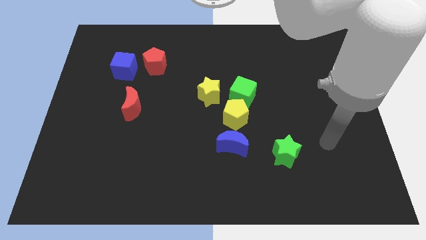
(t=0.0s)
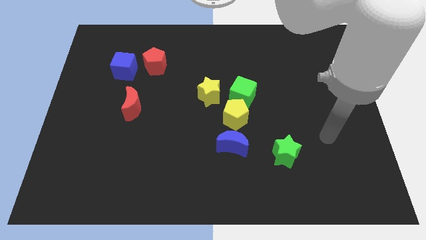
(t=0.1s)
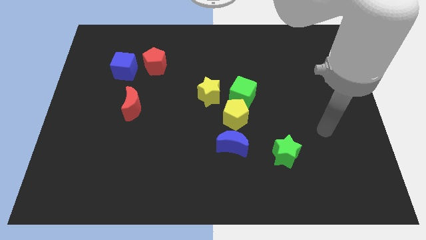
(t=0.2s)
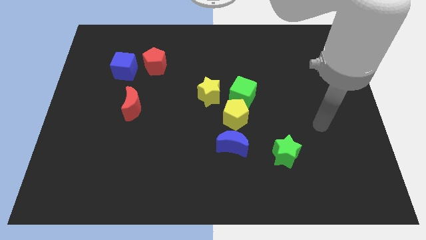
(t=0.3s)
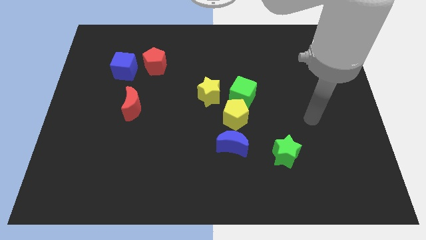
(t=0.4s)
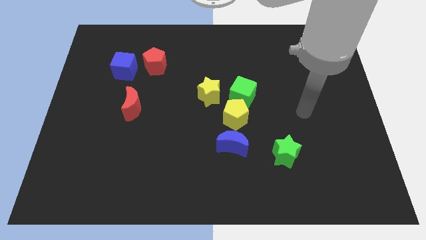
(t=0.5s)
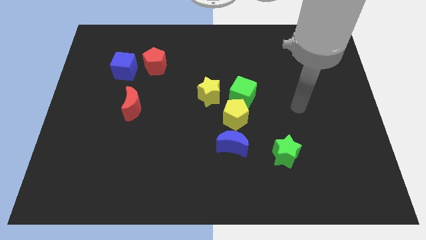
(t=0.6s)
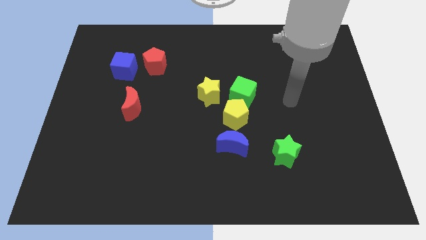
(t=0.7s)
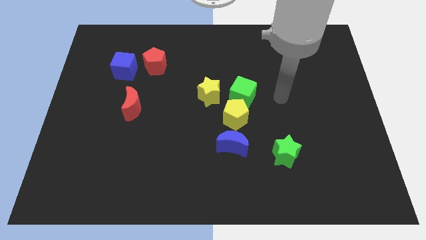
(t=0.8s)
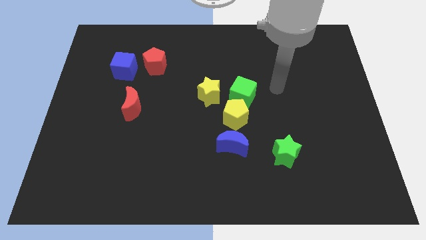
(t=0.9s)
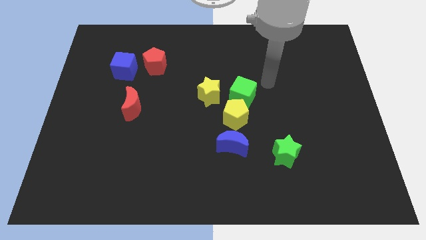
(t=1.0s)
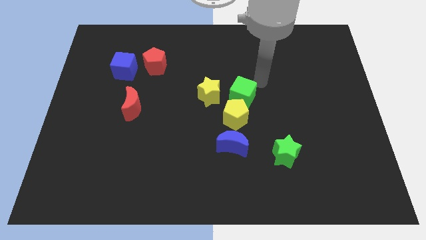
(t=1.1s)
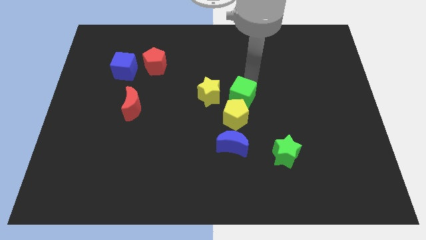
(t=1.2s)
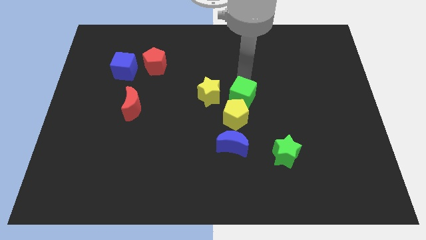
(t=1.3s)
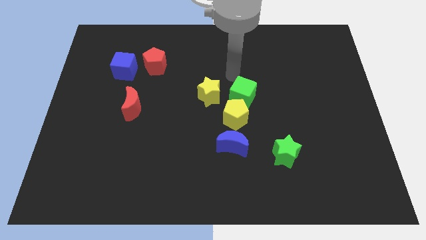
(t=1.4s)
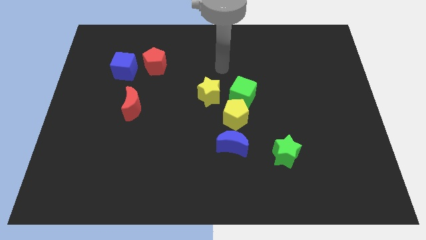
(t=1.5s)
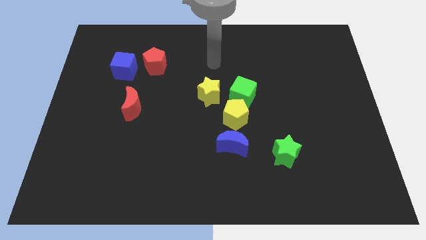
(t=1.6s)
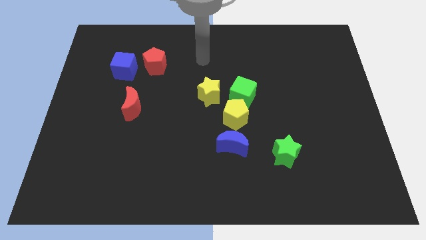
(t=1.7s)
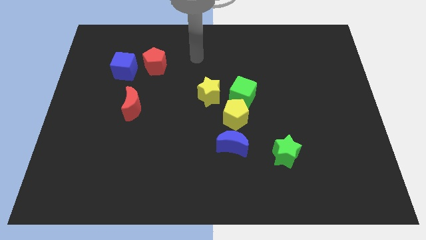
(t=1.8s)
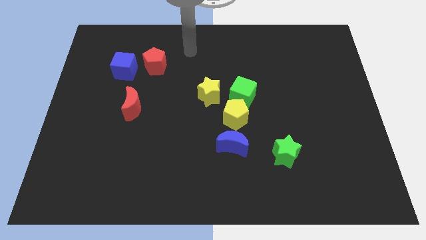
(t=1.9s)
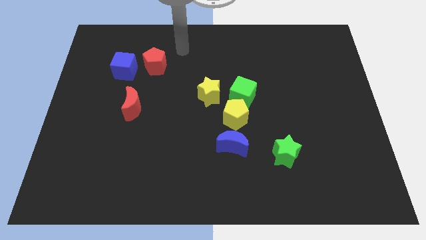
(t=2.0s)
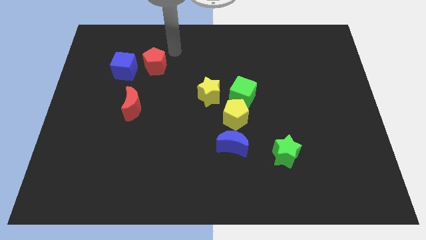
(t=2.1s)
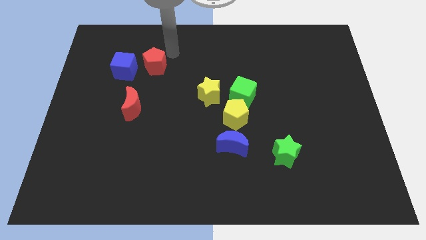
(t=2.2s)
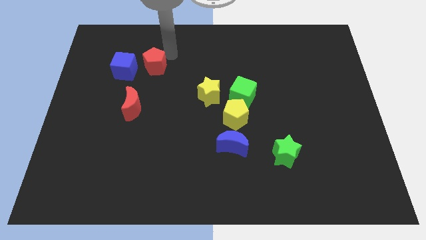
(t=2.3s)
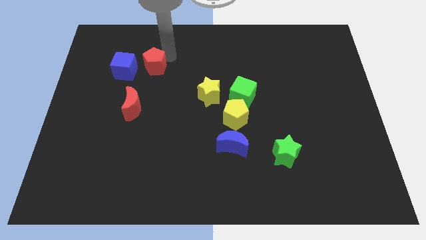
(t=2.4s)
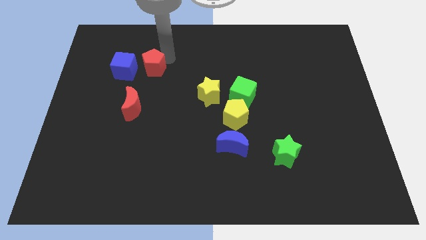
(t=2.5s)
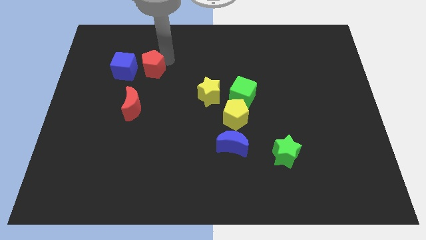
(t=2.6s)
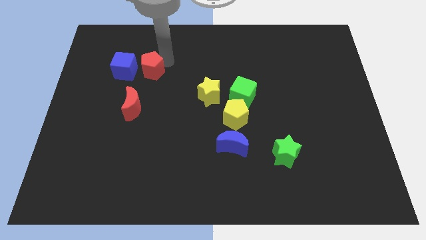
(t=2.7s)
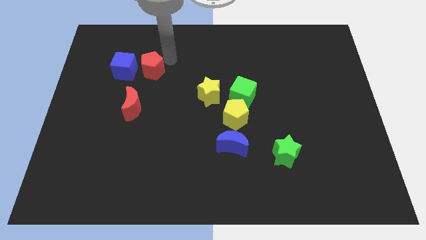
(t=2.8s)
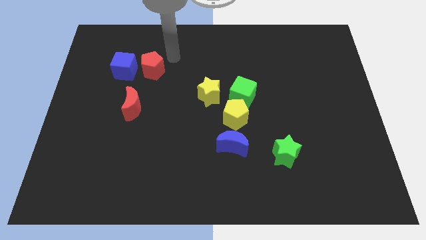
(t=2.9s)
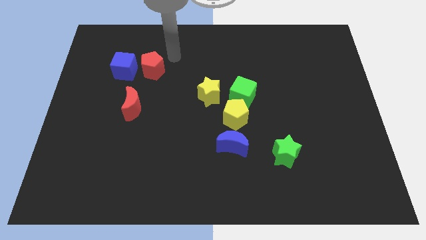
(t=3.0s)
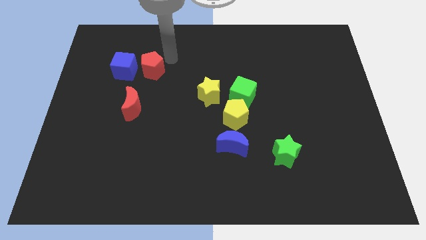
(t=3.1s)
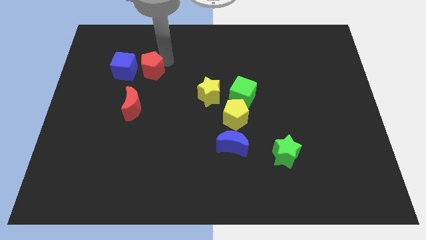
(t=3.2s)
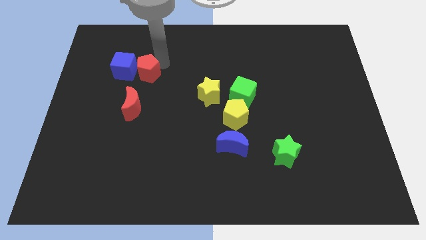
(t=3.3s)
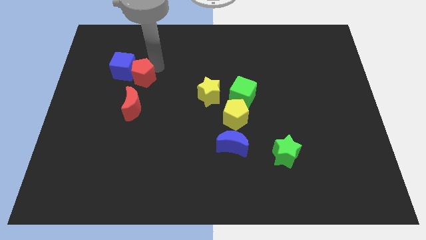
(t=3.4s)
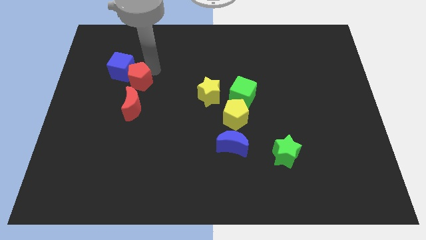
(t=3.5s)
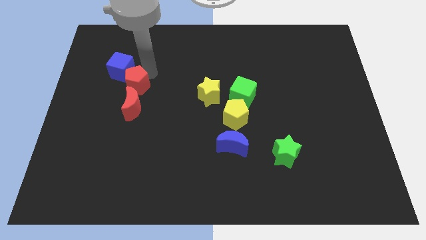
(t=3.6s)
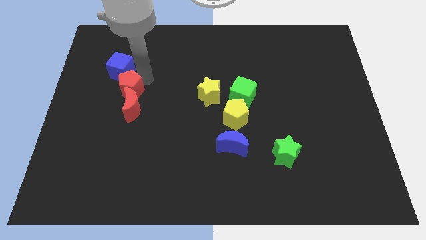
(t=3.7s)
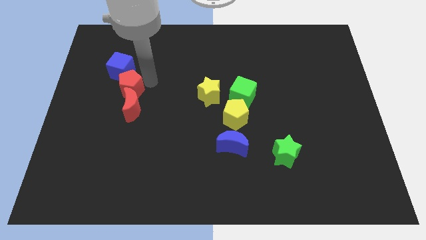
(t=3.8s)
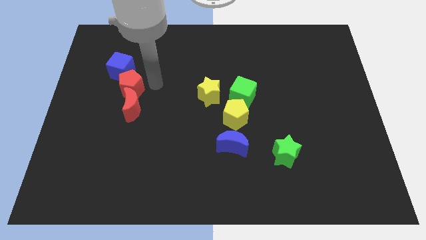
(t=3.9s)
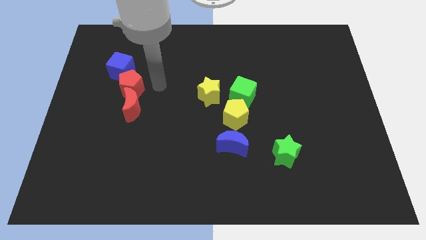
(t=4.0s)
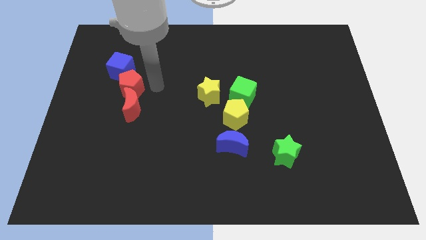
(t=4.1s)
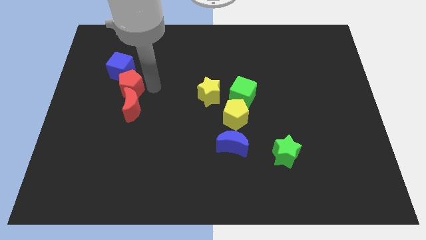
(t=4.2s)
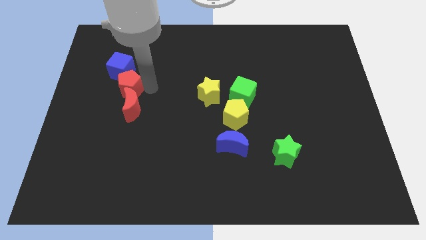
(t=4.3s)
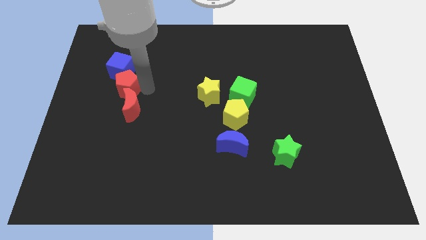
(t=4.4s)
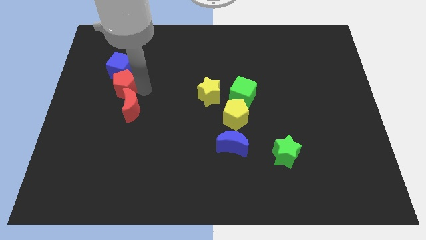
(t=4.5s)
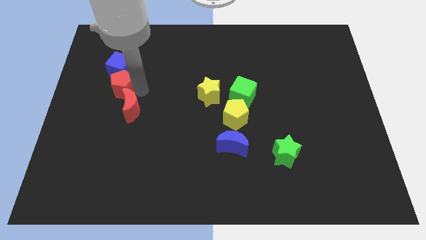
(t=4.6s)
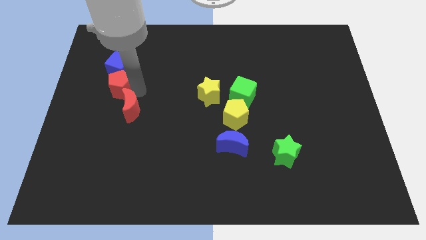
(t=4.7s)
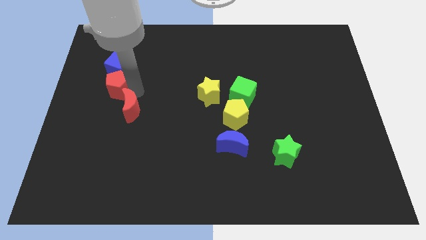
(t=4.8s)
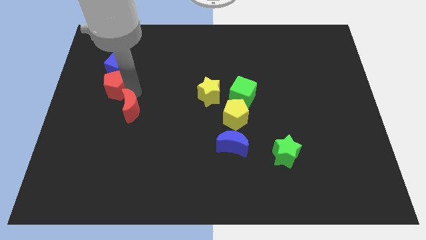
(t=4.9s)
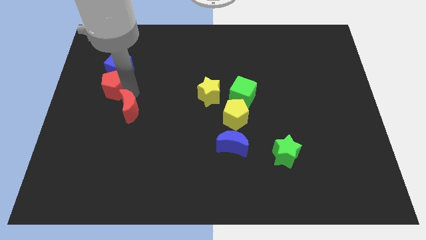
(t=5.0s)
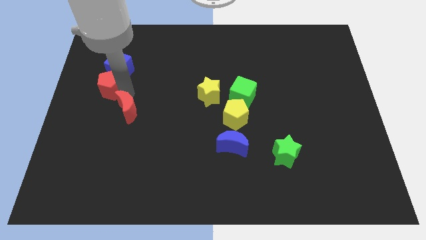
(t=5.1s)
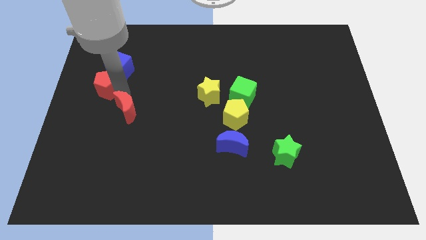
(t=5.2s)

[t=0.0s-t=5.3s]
move the red pentagon to the center left

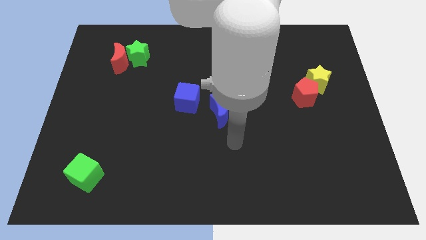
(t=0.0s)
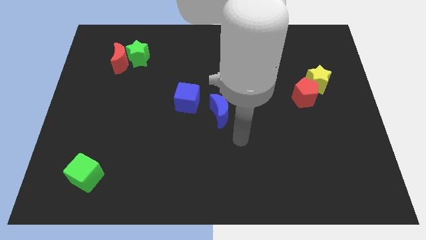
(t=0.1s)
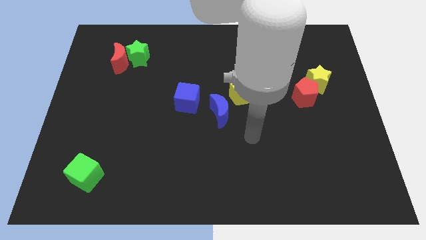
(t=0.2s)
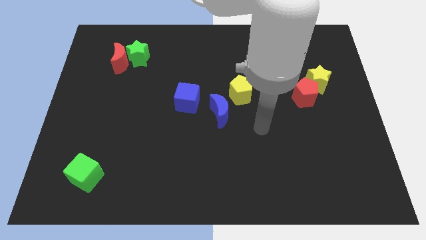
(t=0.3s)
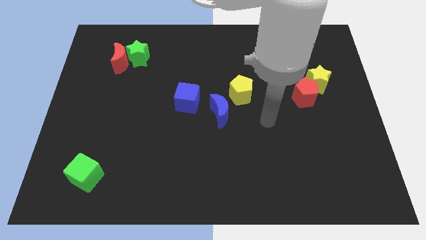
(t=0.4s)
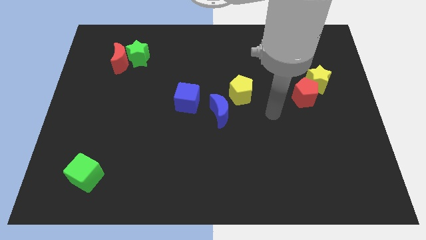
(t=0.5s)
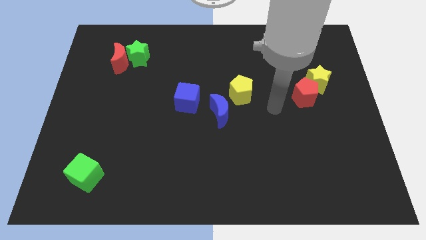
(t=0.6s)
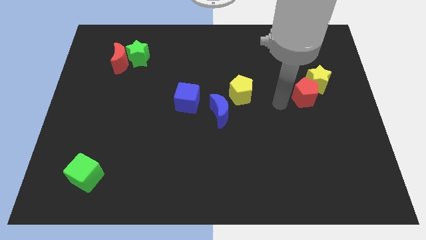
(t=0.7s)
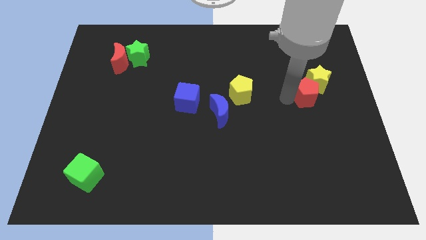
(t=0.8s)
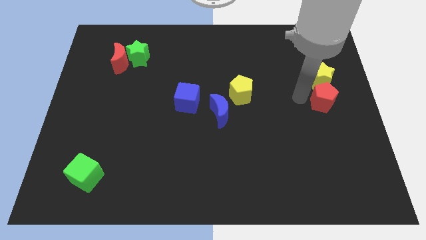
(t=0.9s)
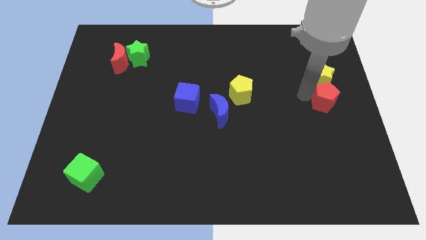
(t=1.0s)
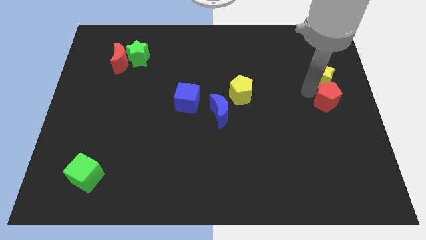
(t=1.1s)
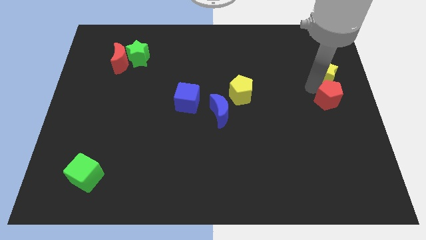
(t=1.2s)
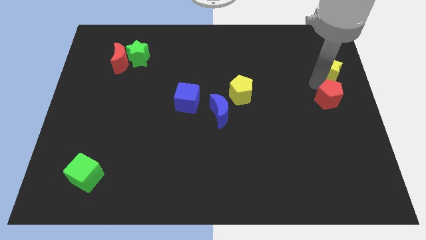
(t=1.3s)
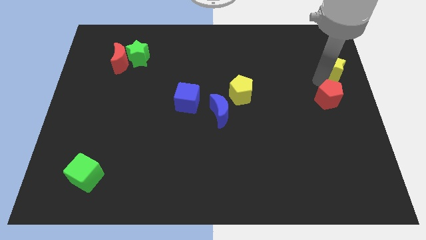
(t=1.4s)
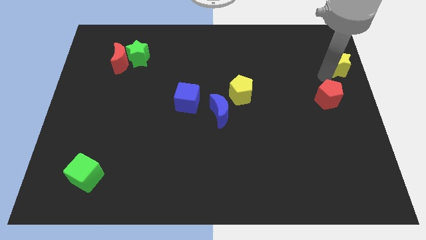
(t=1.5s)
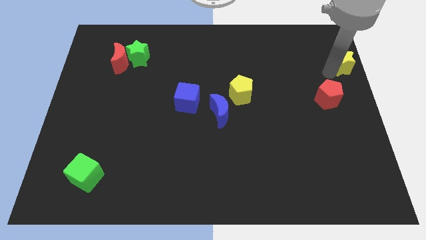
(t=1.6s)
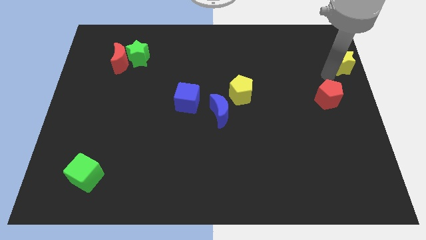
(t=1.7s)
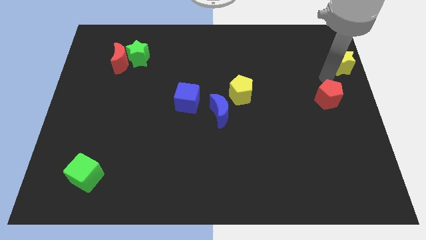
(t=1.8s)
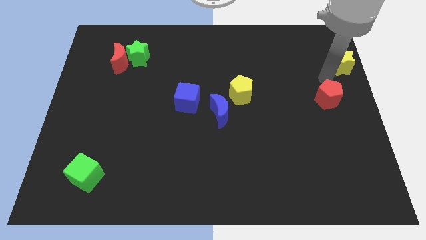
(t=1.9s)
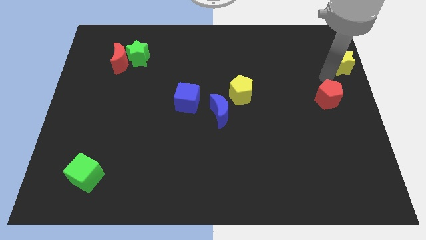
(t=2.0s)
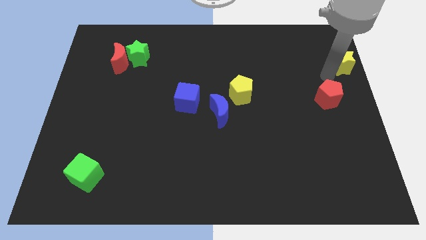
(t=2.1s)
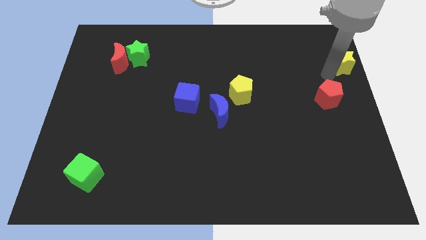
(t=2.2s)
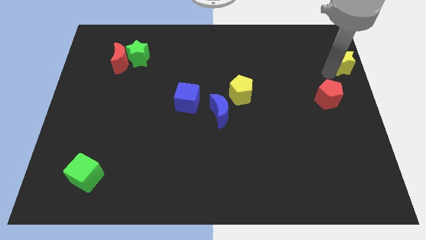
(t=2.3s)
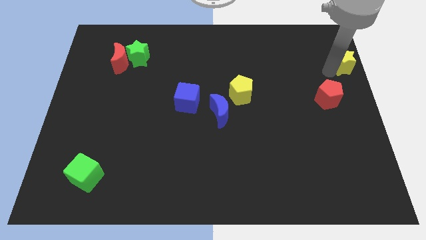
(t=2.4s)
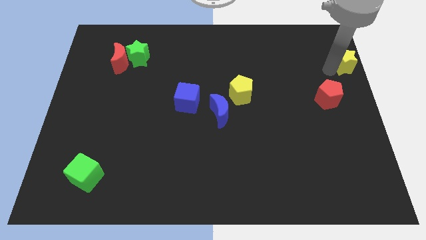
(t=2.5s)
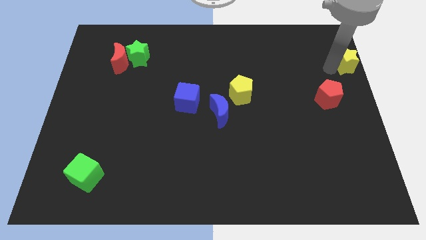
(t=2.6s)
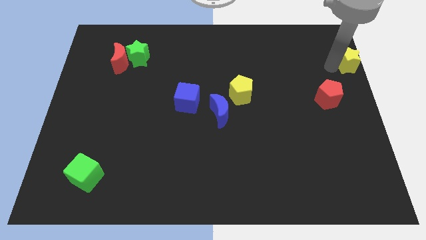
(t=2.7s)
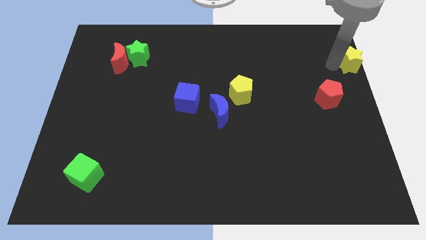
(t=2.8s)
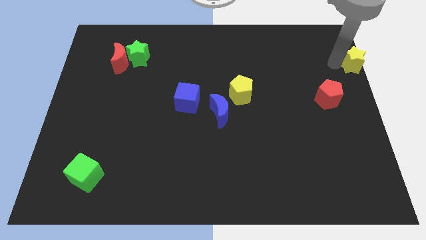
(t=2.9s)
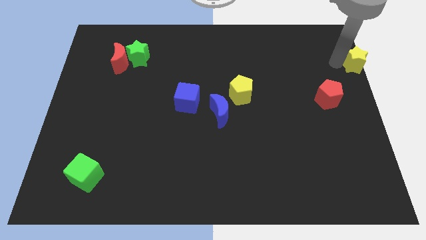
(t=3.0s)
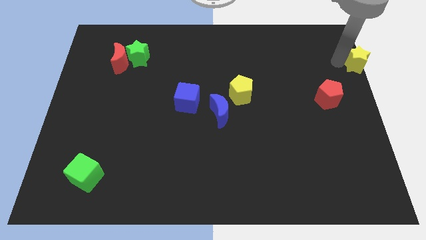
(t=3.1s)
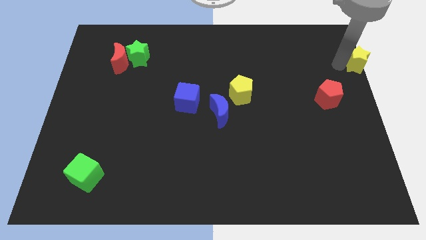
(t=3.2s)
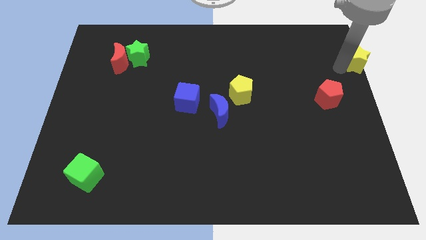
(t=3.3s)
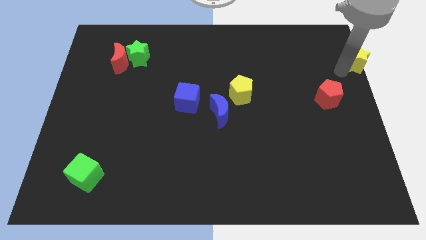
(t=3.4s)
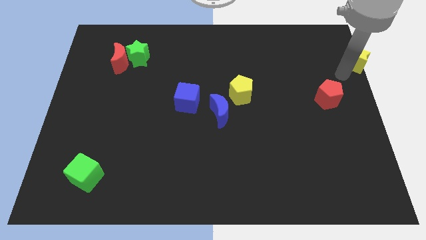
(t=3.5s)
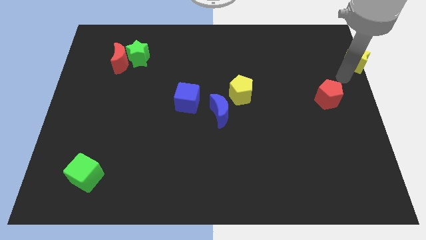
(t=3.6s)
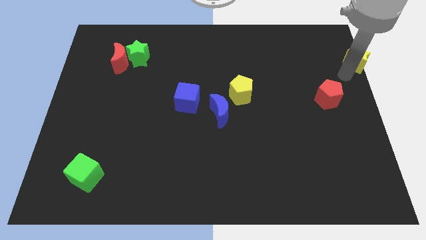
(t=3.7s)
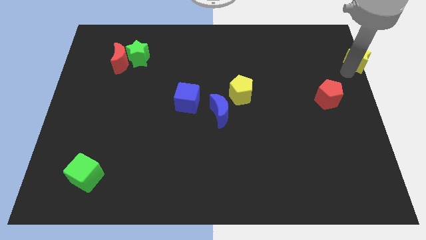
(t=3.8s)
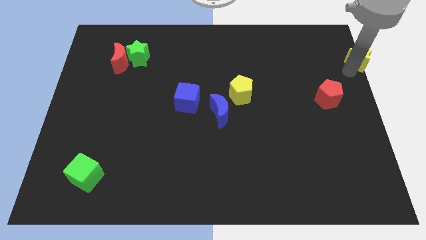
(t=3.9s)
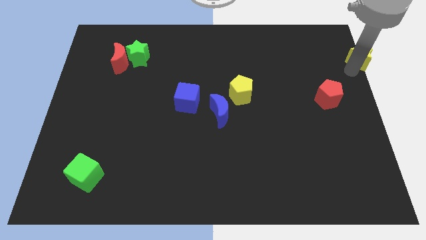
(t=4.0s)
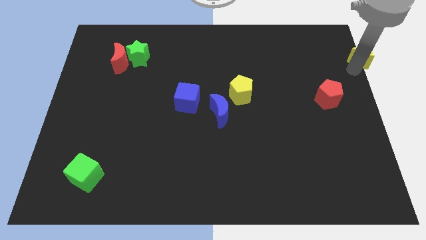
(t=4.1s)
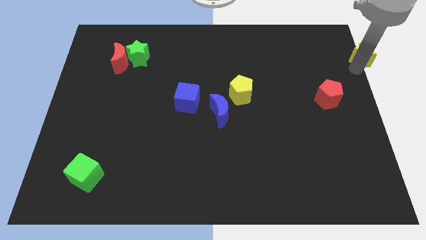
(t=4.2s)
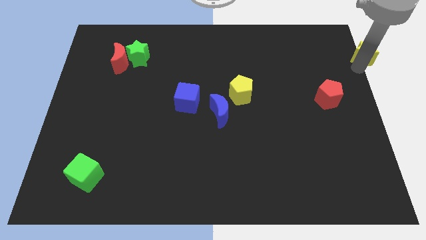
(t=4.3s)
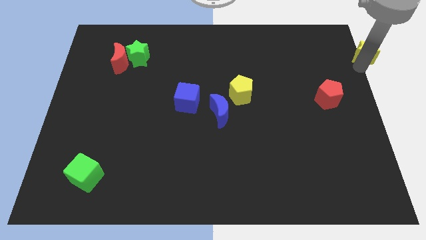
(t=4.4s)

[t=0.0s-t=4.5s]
put the yellow star to the upper right corner
